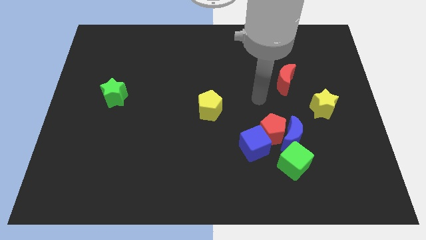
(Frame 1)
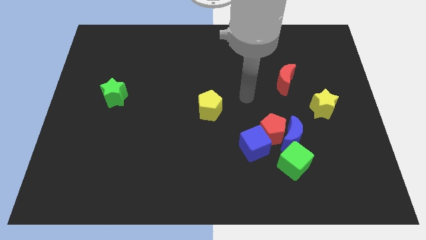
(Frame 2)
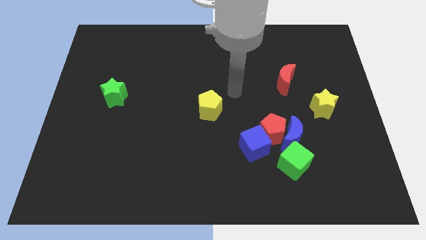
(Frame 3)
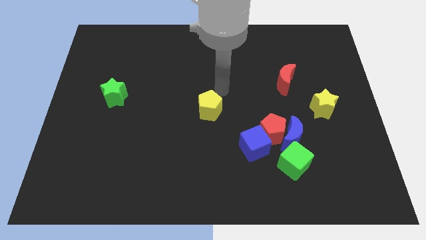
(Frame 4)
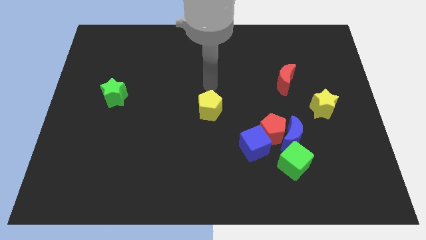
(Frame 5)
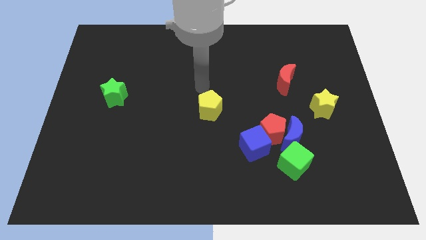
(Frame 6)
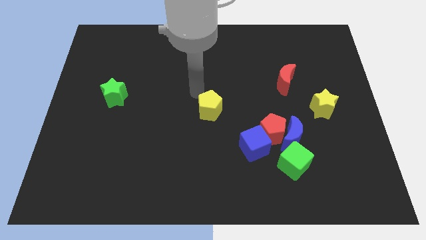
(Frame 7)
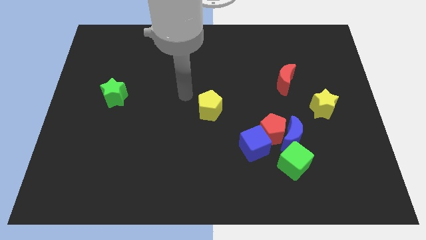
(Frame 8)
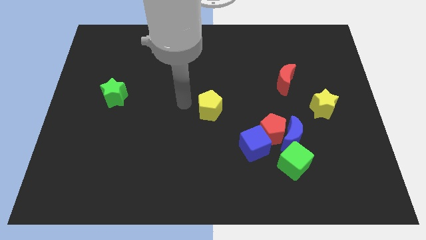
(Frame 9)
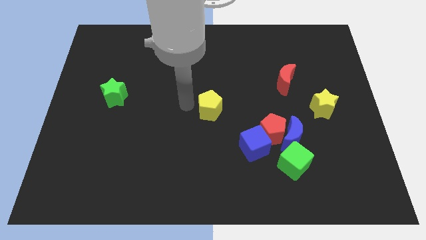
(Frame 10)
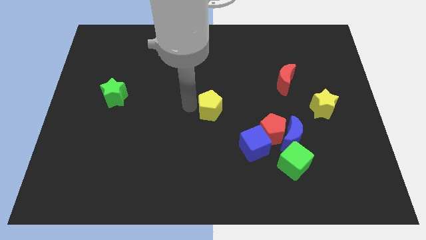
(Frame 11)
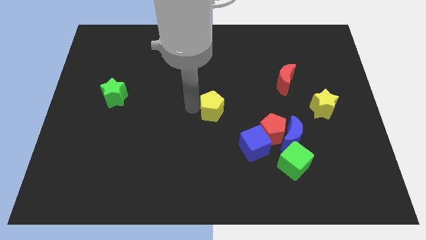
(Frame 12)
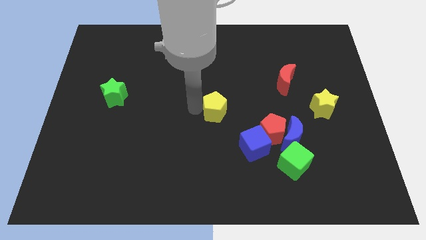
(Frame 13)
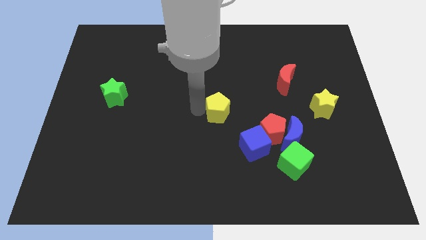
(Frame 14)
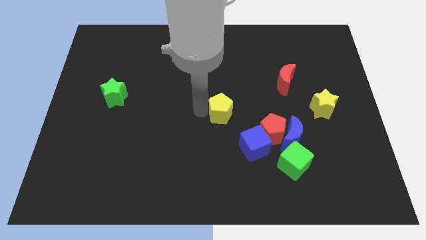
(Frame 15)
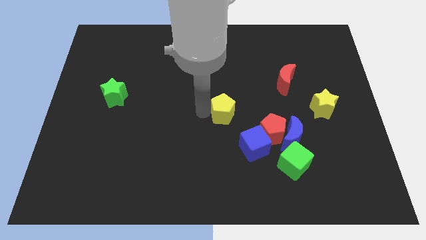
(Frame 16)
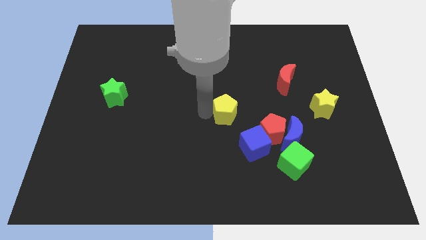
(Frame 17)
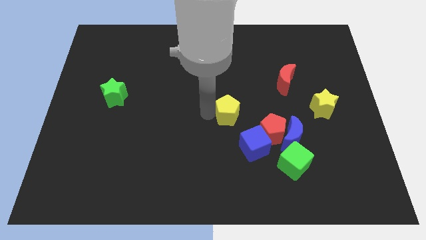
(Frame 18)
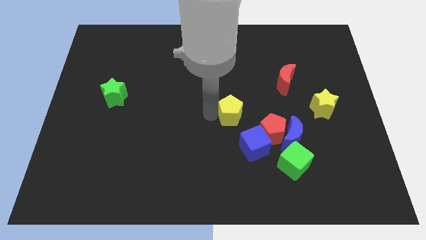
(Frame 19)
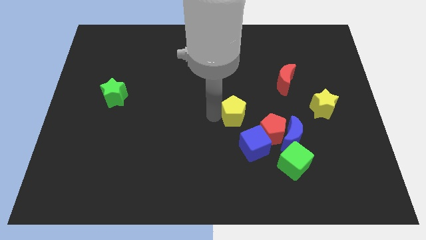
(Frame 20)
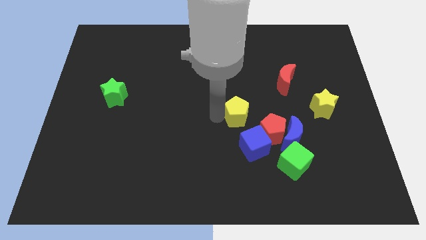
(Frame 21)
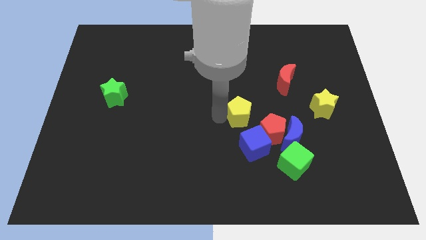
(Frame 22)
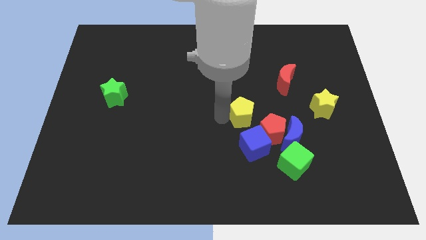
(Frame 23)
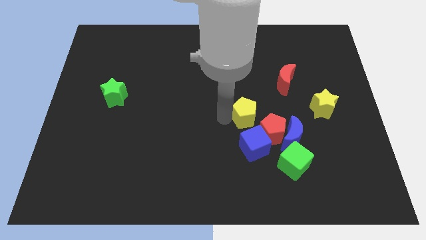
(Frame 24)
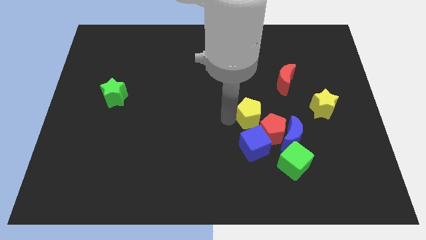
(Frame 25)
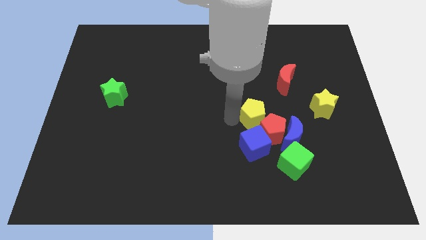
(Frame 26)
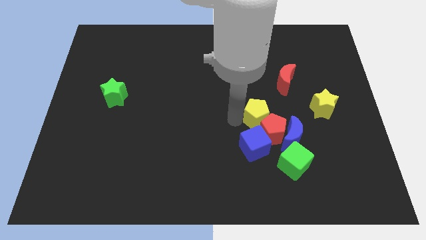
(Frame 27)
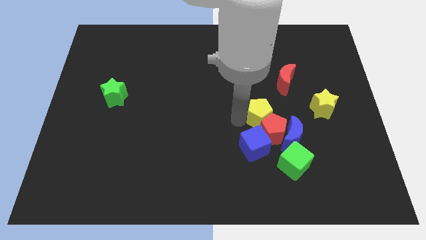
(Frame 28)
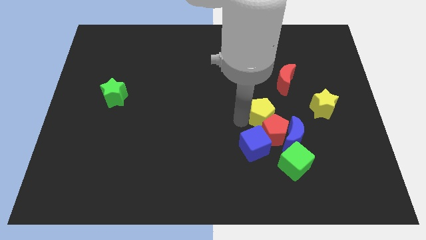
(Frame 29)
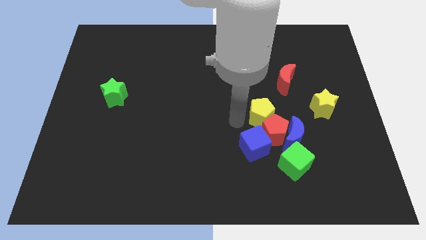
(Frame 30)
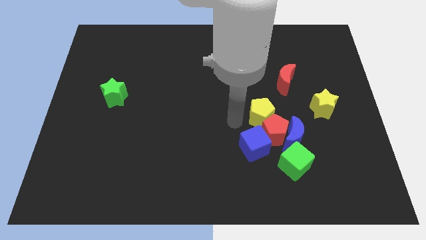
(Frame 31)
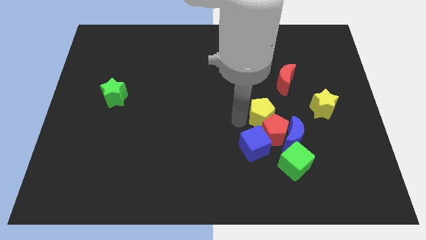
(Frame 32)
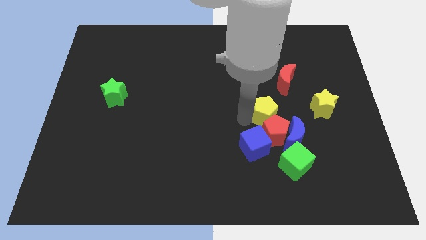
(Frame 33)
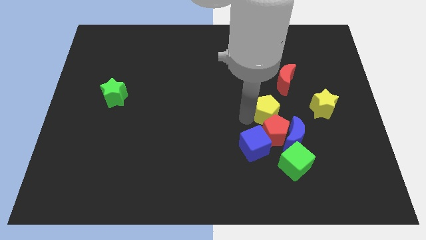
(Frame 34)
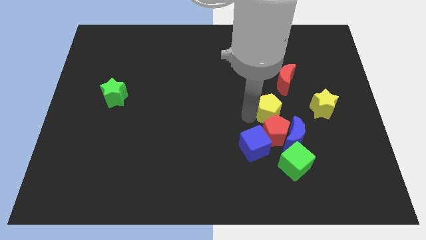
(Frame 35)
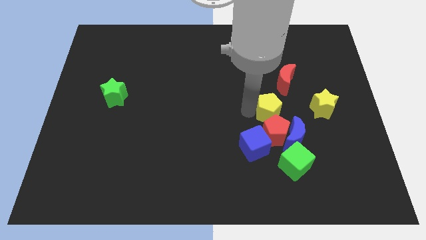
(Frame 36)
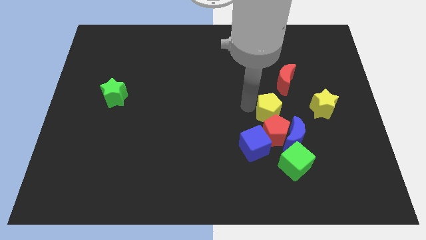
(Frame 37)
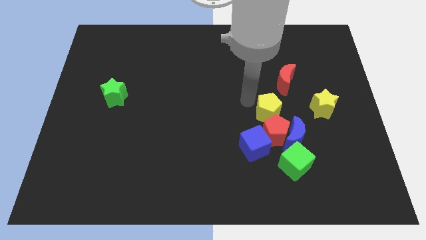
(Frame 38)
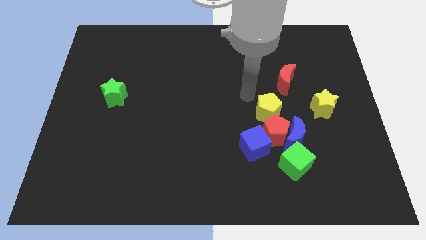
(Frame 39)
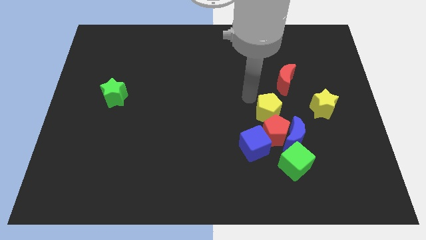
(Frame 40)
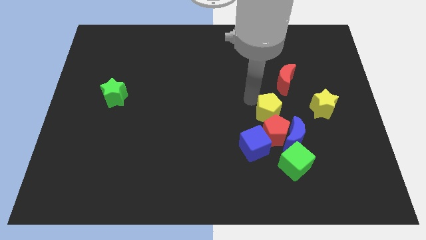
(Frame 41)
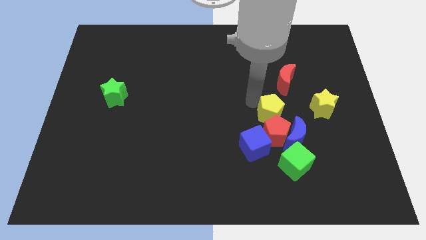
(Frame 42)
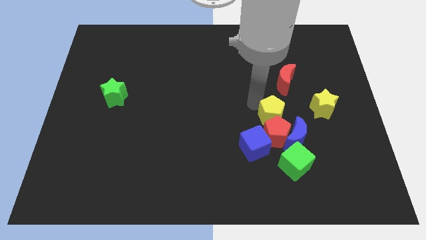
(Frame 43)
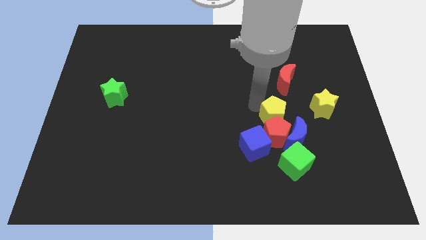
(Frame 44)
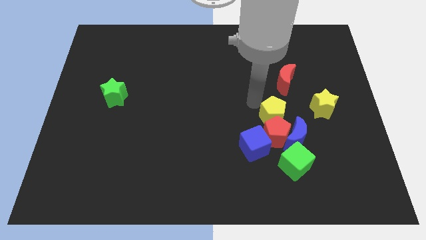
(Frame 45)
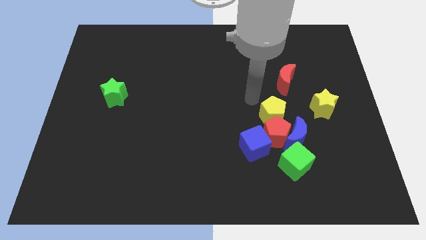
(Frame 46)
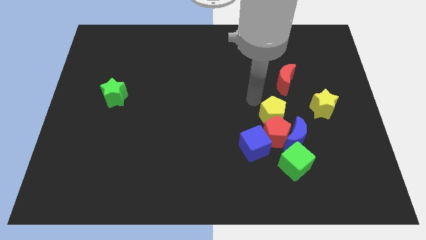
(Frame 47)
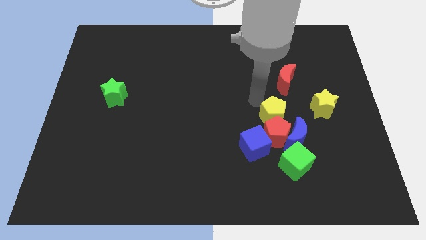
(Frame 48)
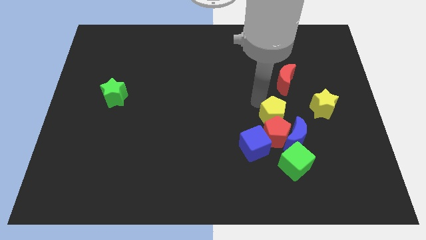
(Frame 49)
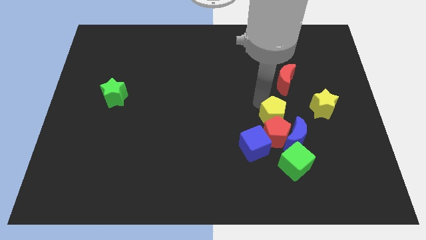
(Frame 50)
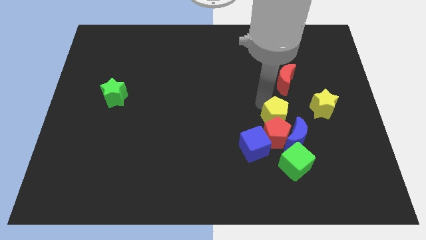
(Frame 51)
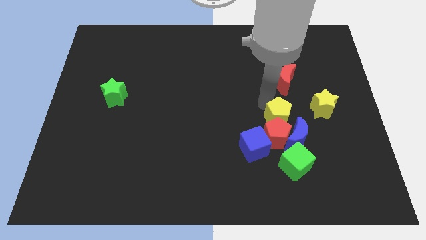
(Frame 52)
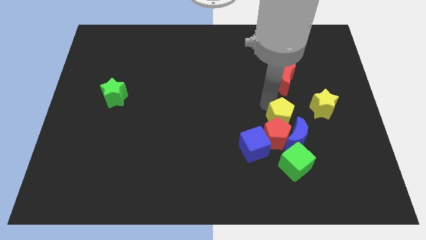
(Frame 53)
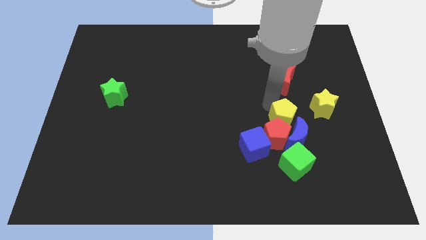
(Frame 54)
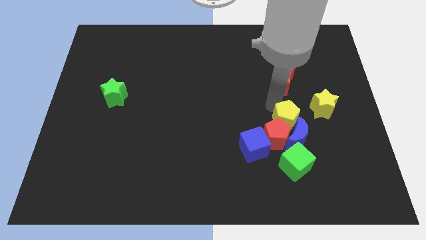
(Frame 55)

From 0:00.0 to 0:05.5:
put the yellow pentagon next to the blue moon

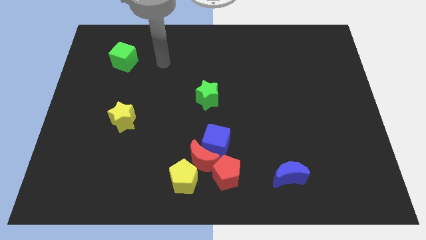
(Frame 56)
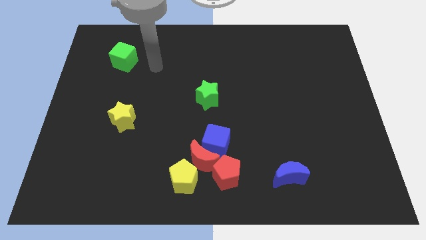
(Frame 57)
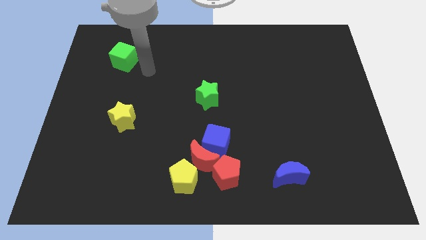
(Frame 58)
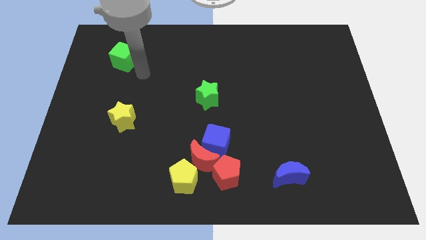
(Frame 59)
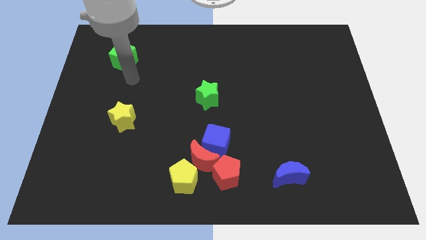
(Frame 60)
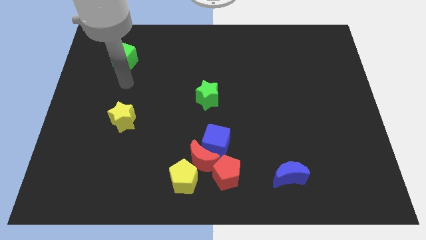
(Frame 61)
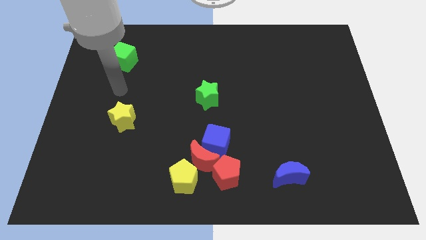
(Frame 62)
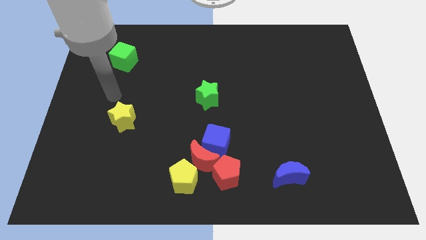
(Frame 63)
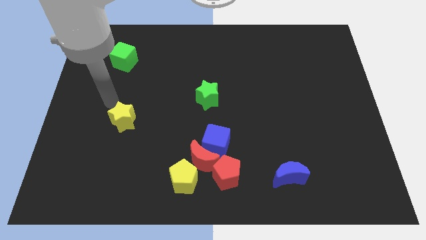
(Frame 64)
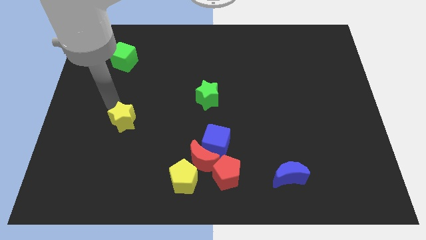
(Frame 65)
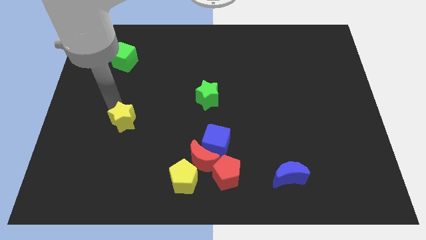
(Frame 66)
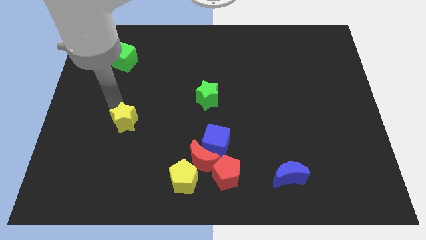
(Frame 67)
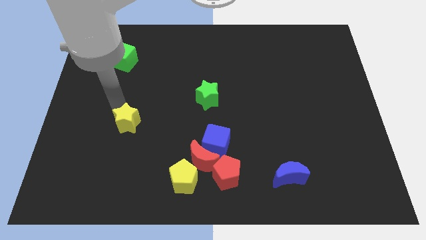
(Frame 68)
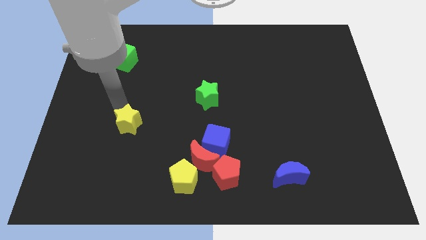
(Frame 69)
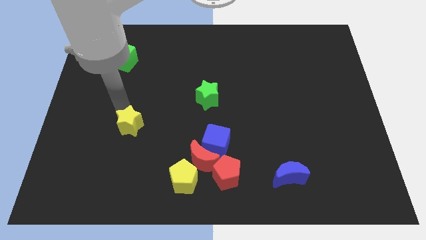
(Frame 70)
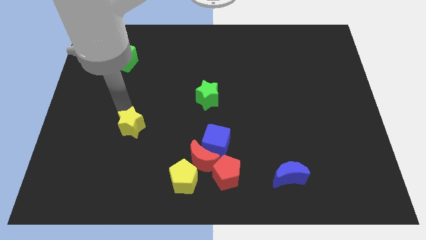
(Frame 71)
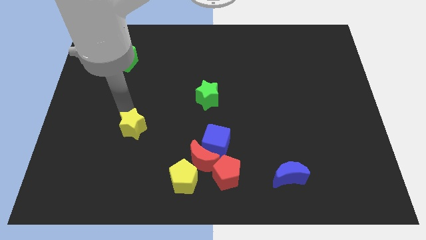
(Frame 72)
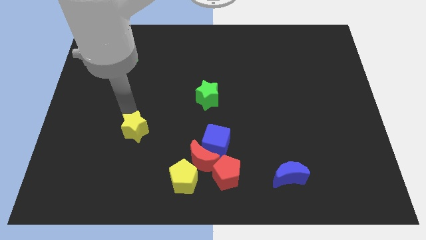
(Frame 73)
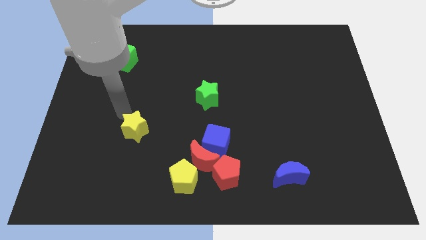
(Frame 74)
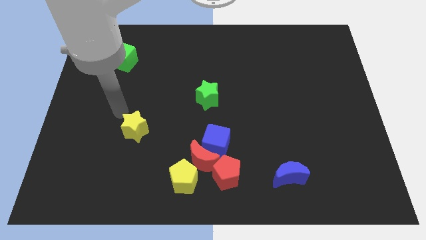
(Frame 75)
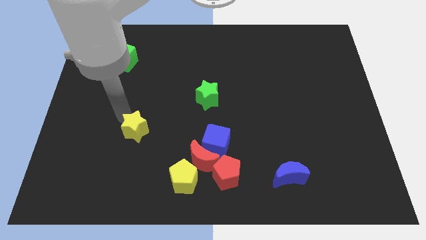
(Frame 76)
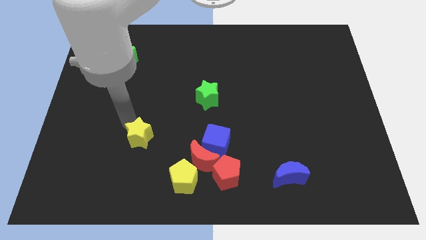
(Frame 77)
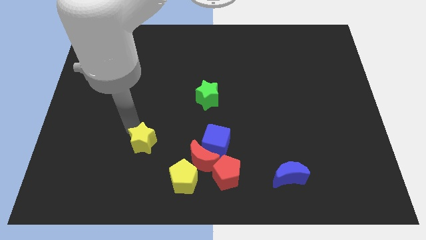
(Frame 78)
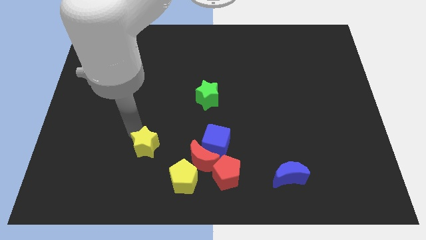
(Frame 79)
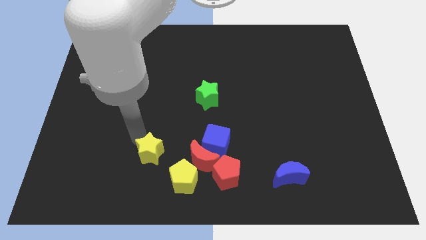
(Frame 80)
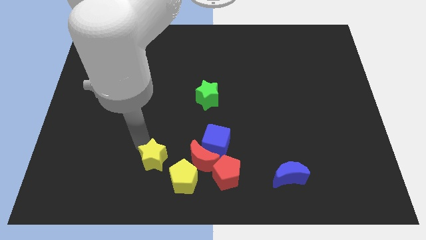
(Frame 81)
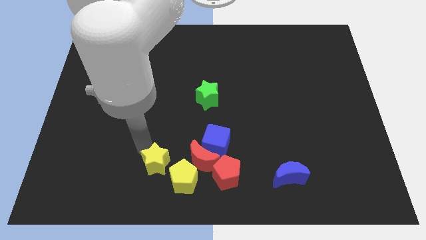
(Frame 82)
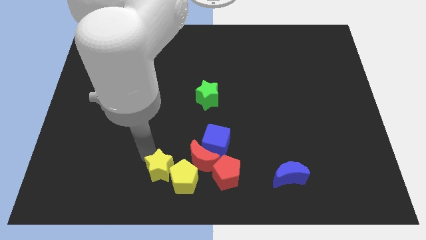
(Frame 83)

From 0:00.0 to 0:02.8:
put the yellow star towards the yellow pentagon
